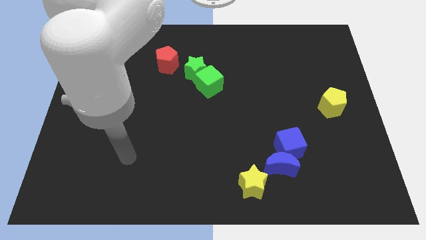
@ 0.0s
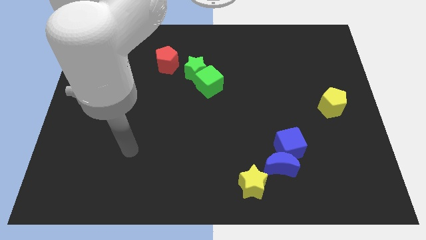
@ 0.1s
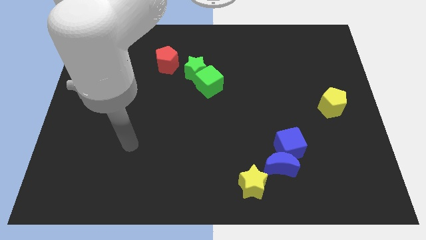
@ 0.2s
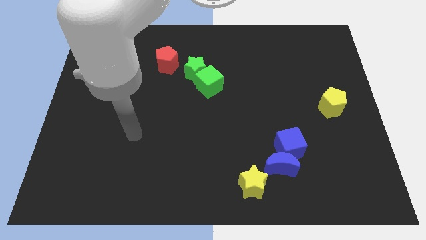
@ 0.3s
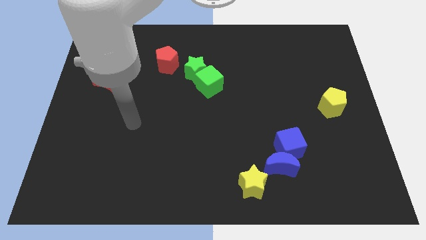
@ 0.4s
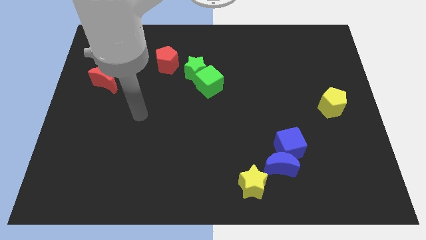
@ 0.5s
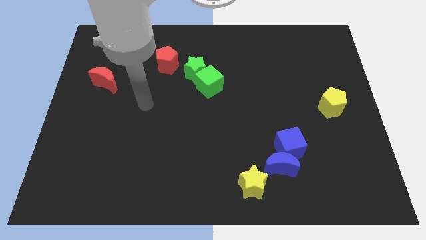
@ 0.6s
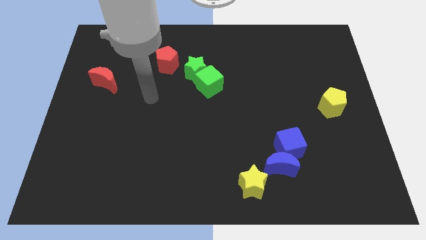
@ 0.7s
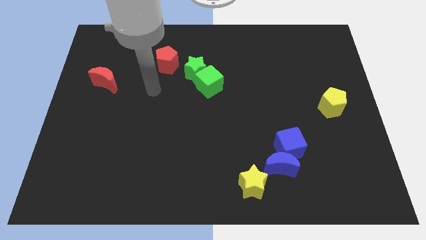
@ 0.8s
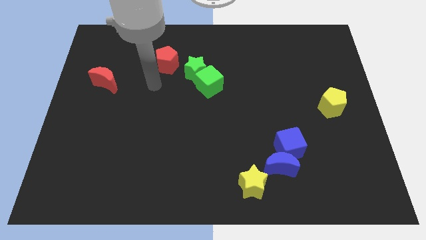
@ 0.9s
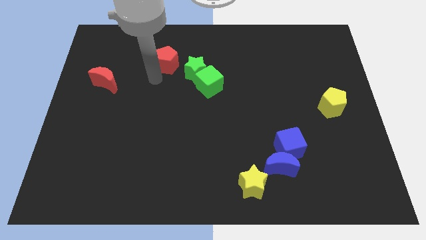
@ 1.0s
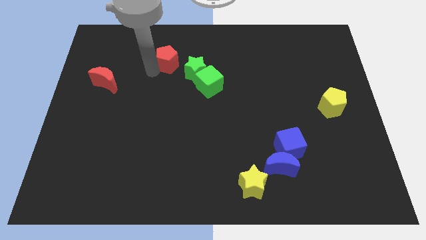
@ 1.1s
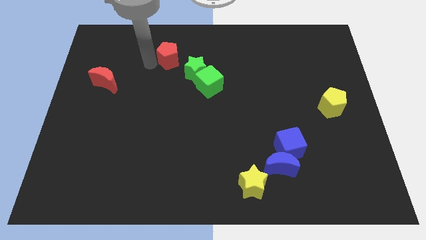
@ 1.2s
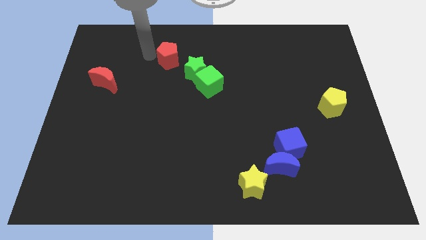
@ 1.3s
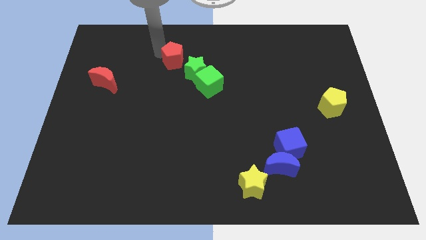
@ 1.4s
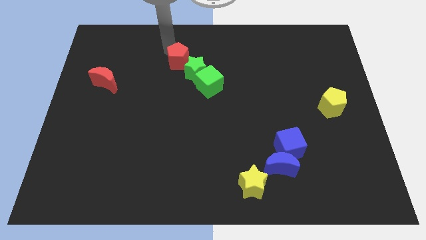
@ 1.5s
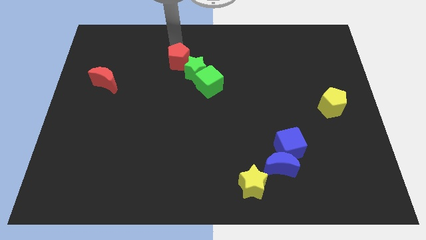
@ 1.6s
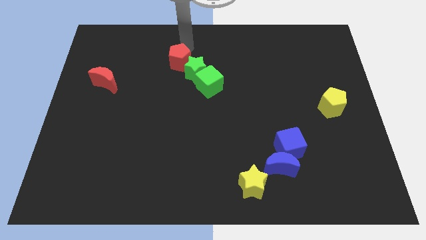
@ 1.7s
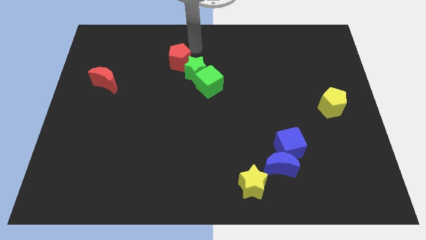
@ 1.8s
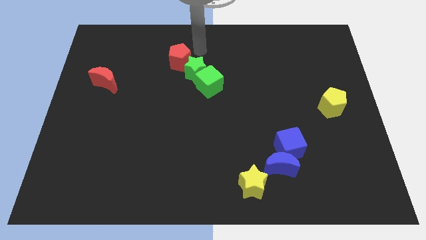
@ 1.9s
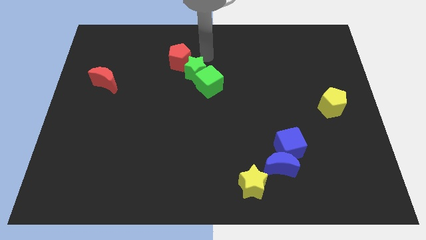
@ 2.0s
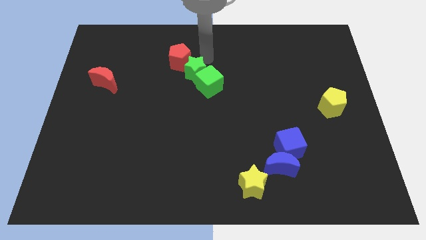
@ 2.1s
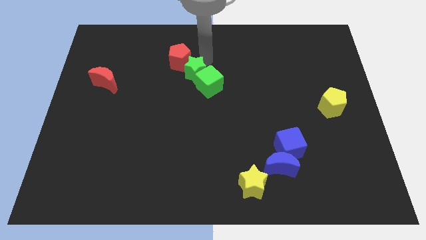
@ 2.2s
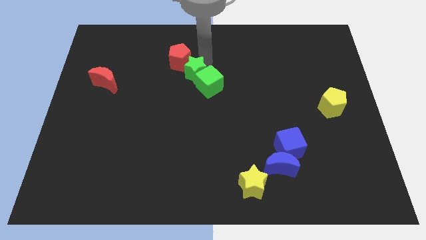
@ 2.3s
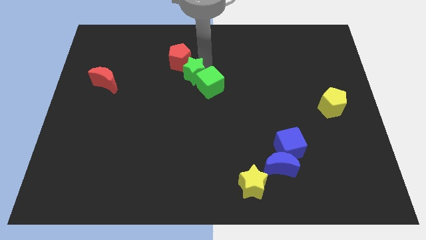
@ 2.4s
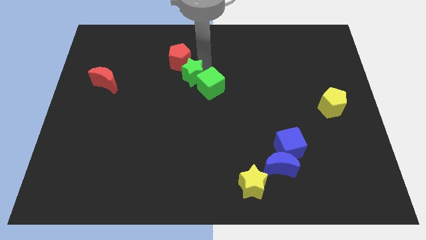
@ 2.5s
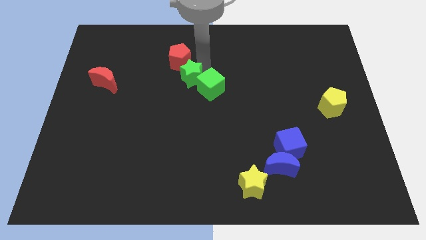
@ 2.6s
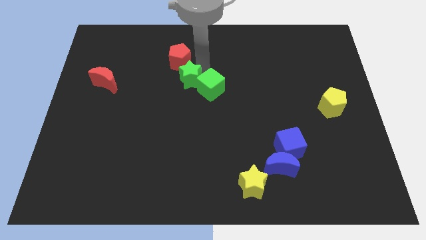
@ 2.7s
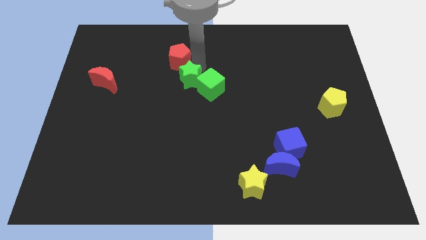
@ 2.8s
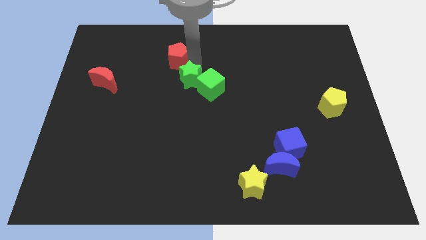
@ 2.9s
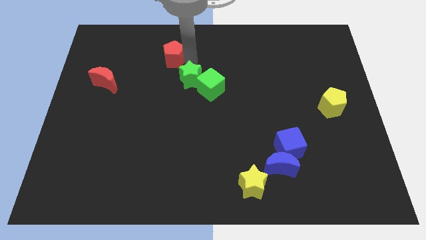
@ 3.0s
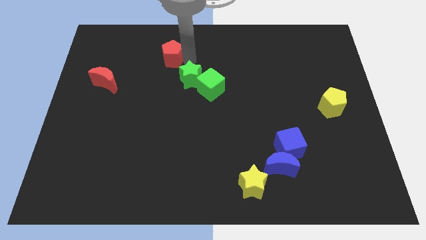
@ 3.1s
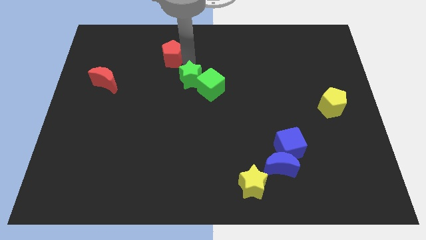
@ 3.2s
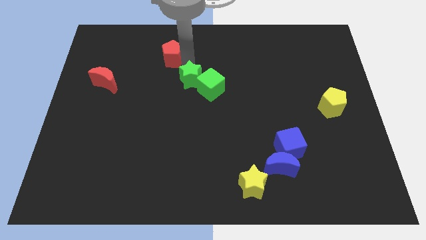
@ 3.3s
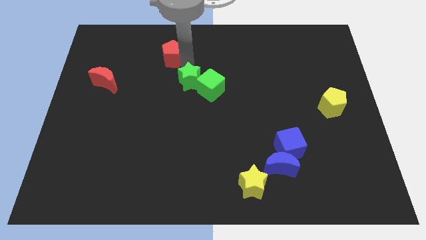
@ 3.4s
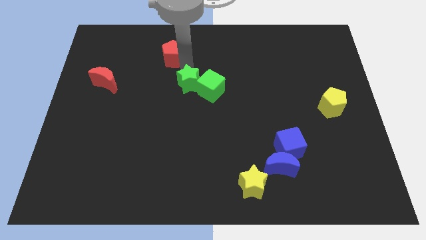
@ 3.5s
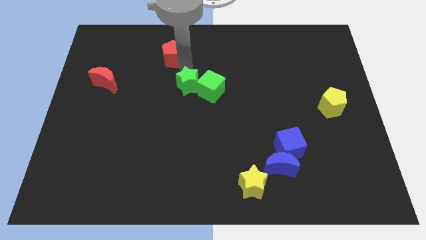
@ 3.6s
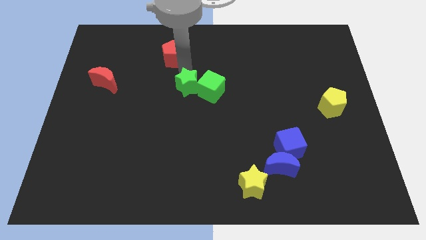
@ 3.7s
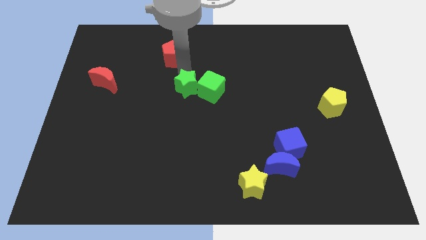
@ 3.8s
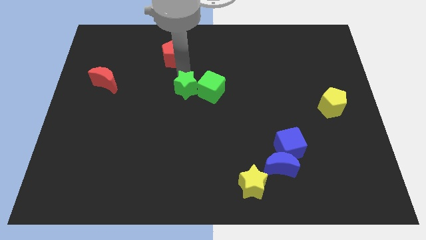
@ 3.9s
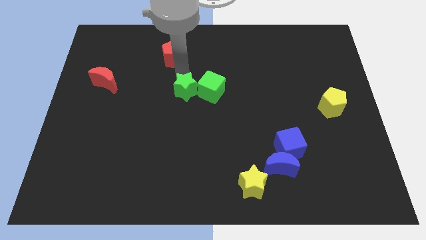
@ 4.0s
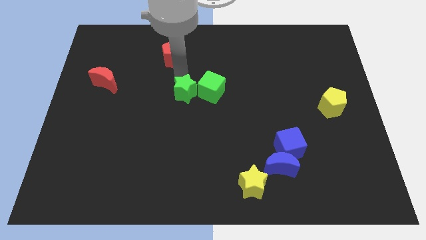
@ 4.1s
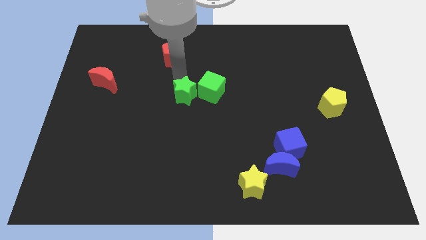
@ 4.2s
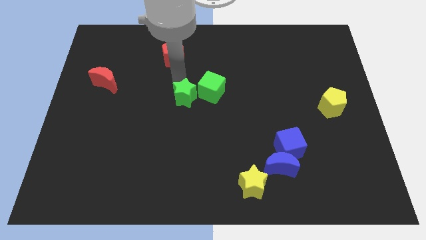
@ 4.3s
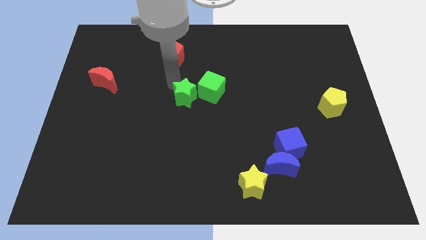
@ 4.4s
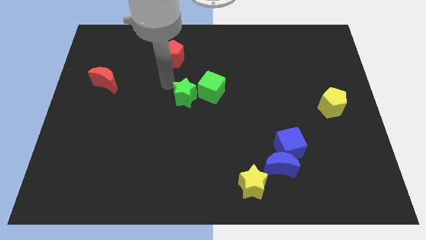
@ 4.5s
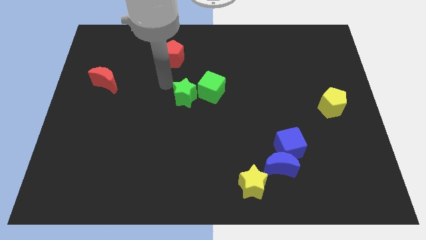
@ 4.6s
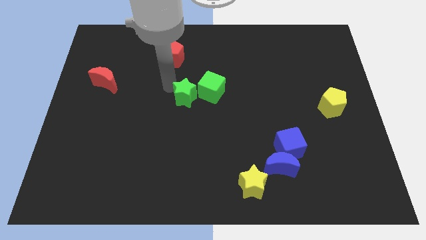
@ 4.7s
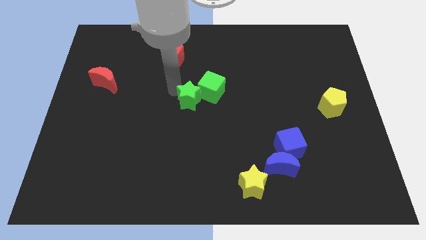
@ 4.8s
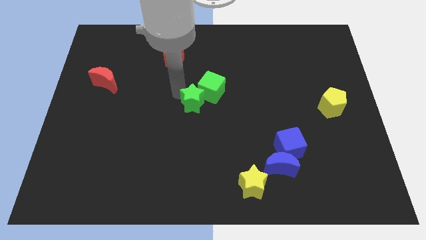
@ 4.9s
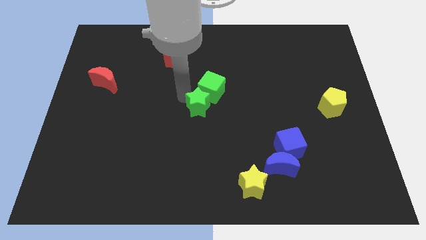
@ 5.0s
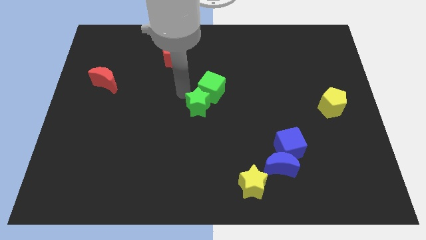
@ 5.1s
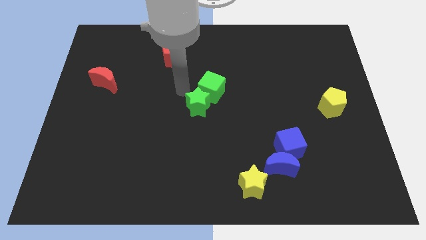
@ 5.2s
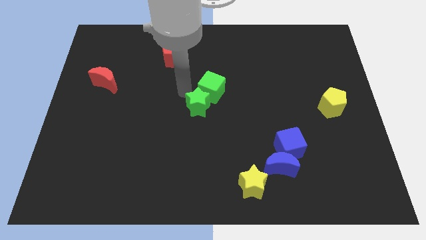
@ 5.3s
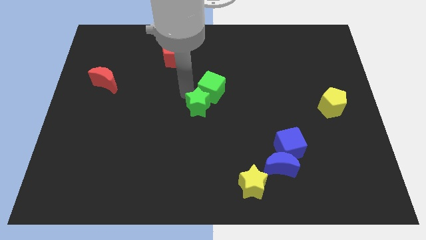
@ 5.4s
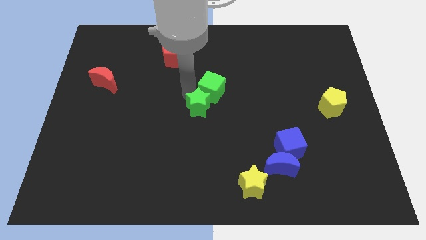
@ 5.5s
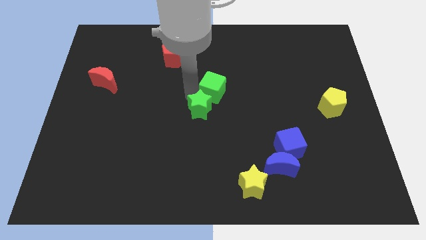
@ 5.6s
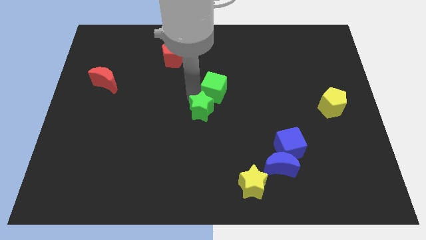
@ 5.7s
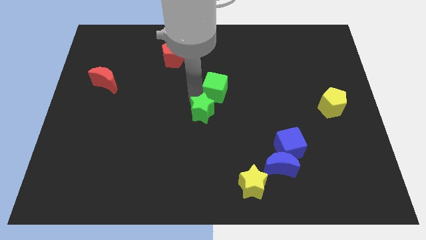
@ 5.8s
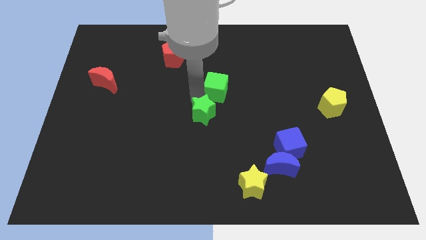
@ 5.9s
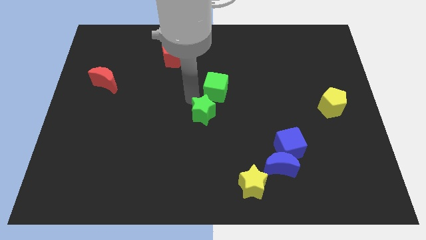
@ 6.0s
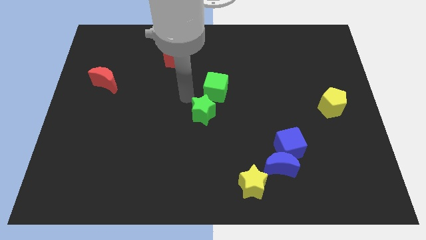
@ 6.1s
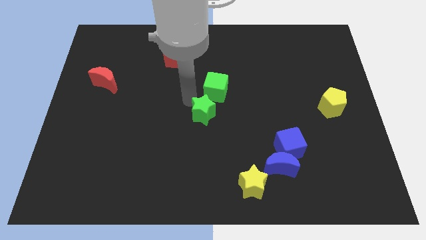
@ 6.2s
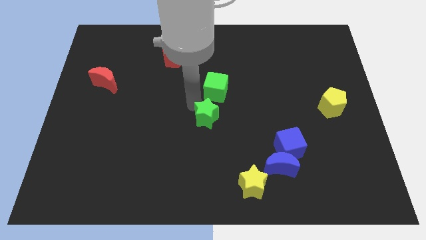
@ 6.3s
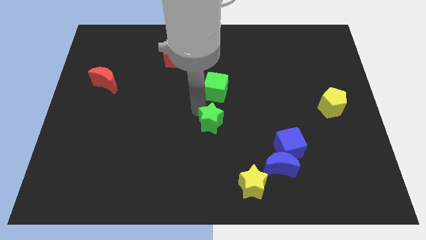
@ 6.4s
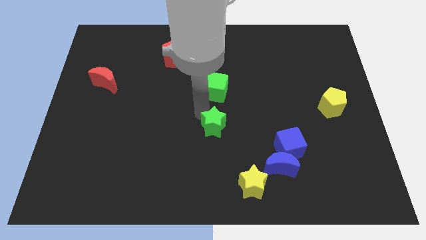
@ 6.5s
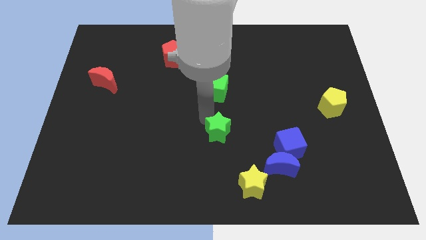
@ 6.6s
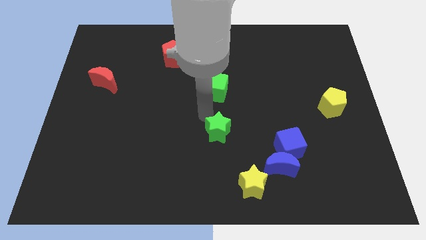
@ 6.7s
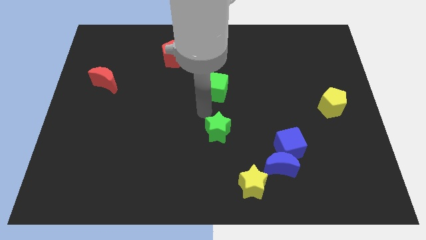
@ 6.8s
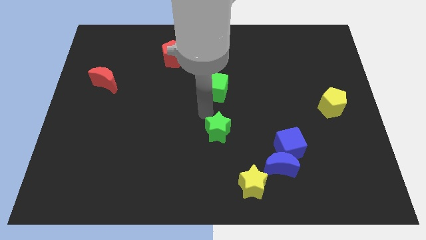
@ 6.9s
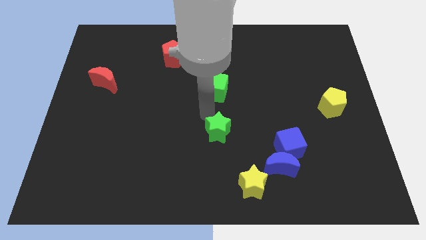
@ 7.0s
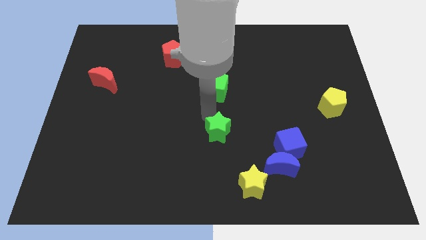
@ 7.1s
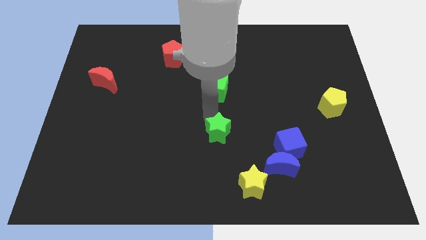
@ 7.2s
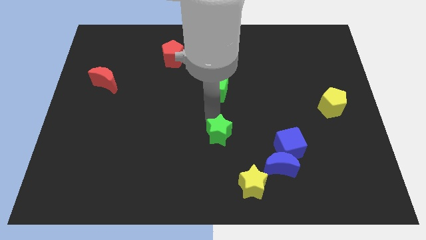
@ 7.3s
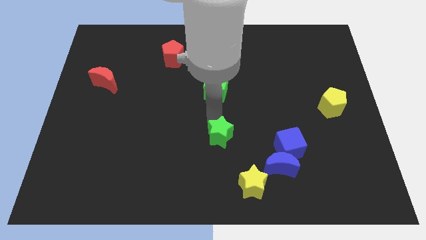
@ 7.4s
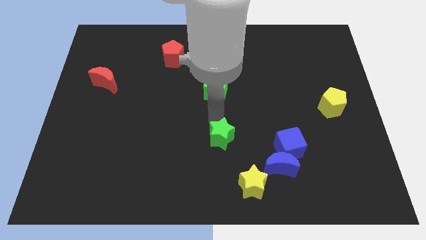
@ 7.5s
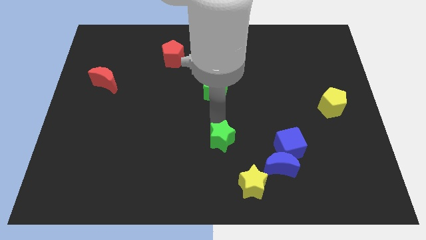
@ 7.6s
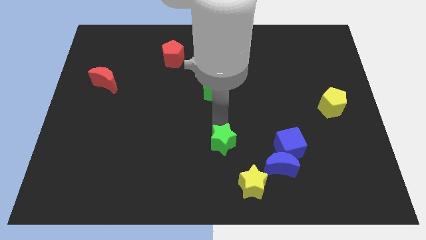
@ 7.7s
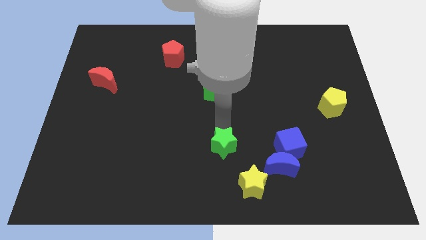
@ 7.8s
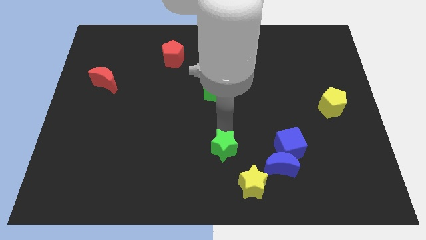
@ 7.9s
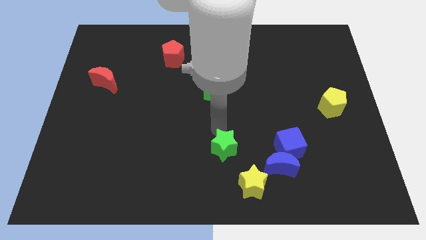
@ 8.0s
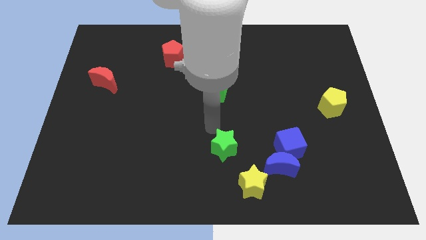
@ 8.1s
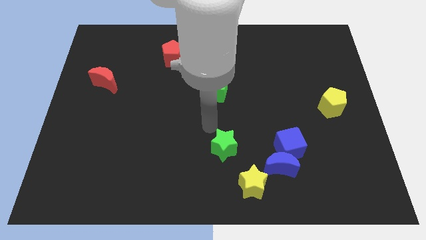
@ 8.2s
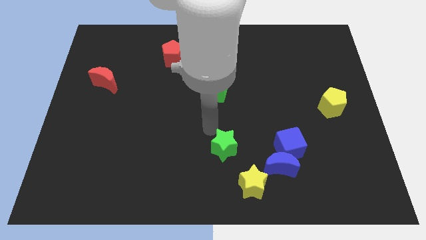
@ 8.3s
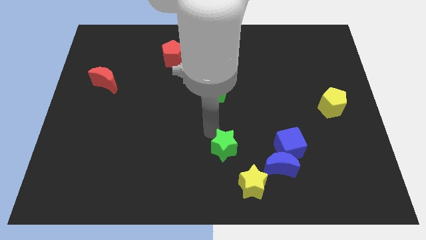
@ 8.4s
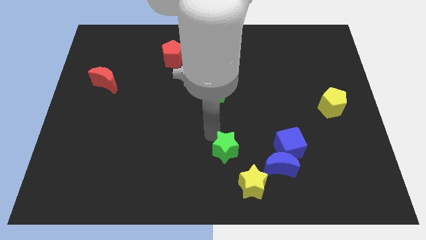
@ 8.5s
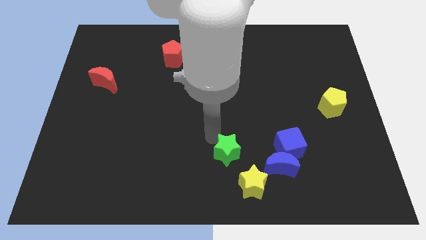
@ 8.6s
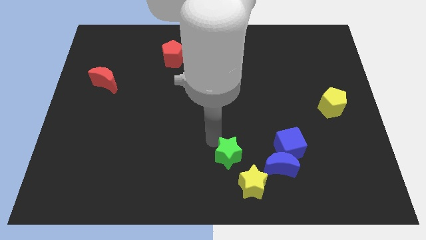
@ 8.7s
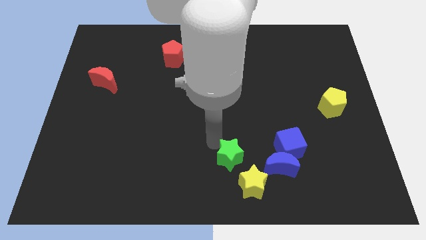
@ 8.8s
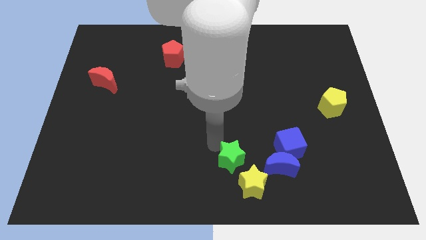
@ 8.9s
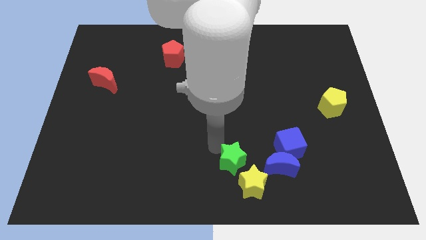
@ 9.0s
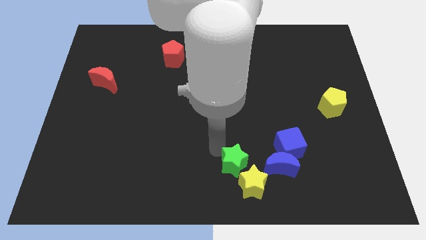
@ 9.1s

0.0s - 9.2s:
slide the green star next to the yellow star
